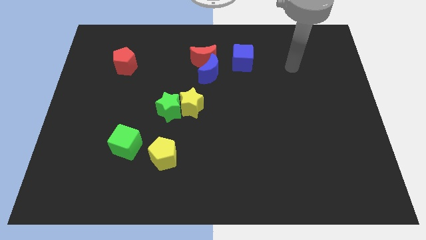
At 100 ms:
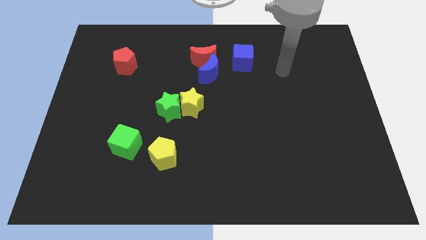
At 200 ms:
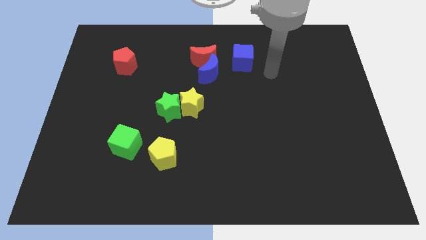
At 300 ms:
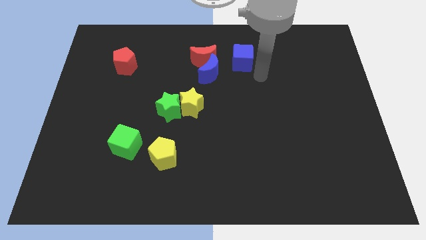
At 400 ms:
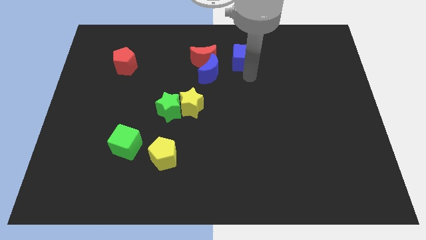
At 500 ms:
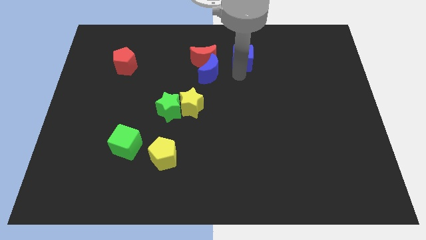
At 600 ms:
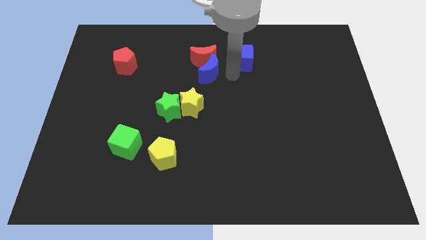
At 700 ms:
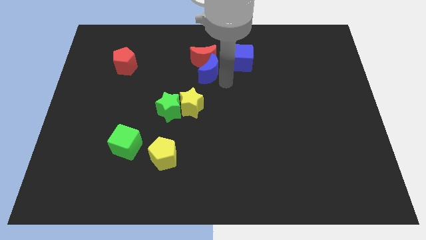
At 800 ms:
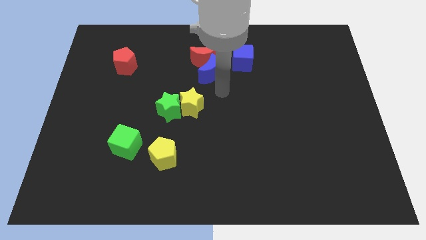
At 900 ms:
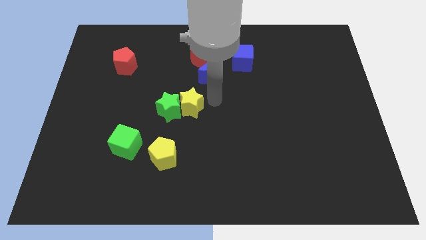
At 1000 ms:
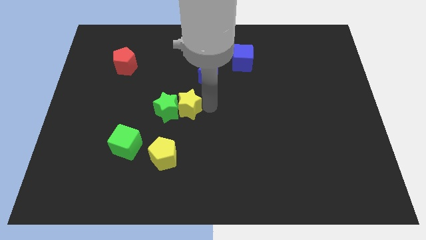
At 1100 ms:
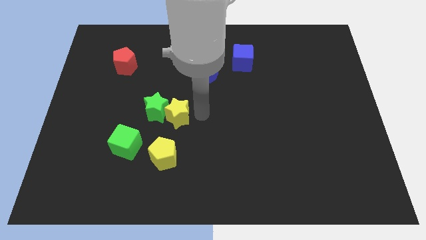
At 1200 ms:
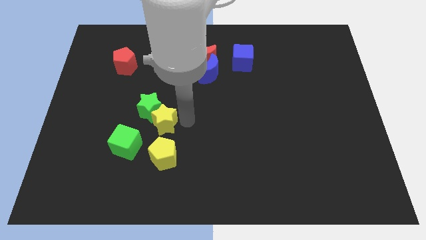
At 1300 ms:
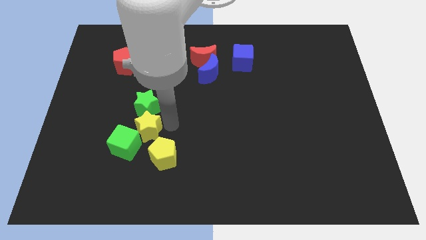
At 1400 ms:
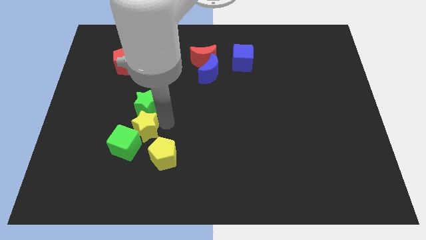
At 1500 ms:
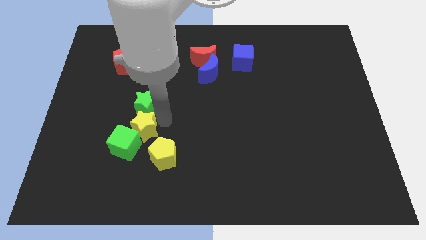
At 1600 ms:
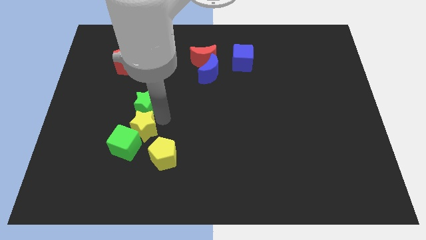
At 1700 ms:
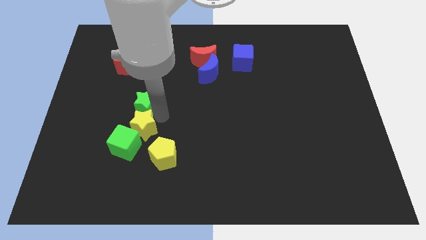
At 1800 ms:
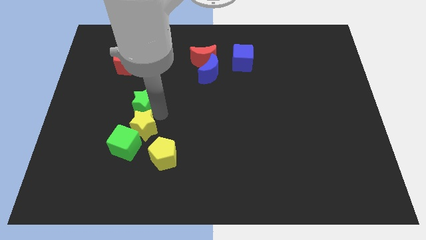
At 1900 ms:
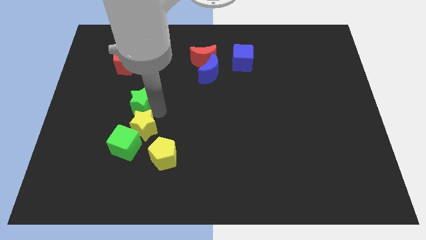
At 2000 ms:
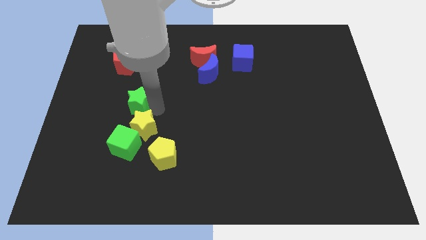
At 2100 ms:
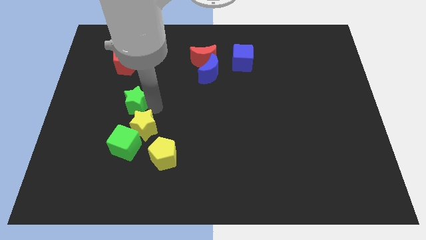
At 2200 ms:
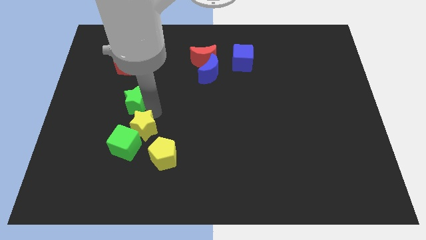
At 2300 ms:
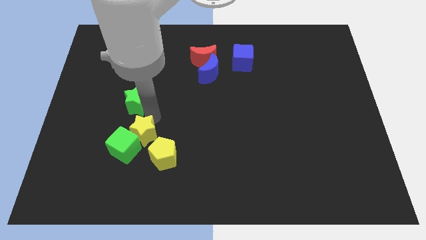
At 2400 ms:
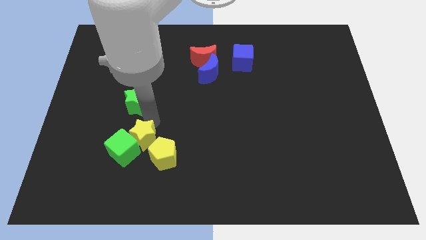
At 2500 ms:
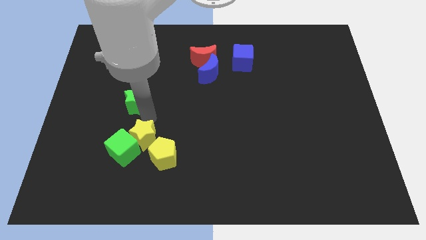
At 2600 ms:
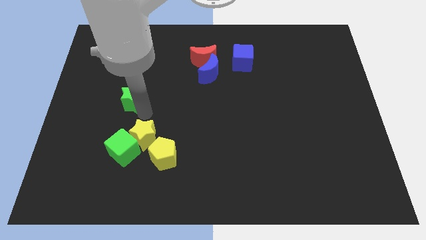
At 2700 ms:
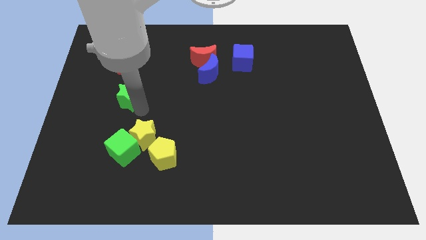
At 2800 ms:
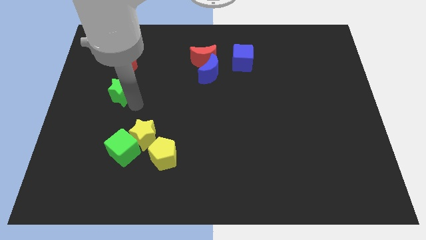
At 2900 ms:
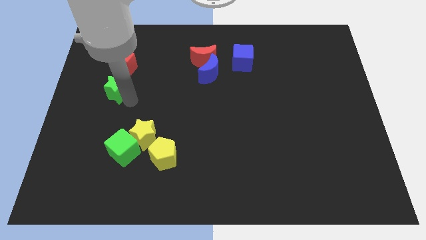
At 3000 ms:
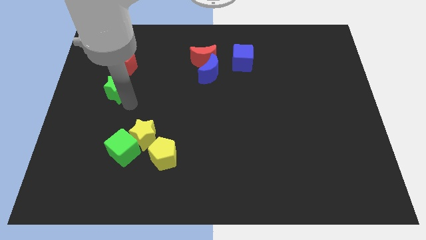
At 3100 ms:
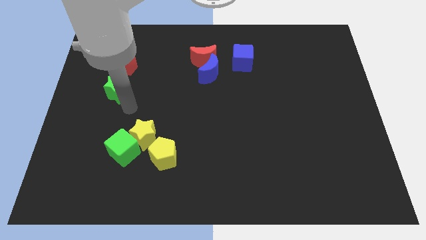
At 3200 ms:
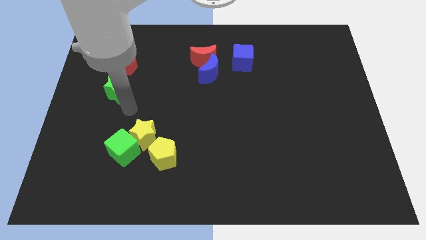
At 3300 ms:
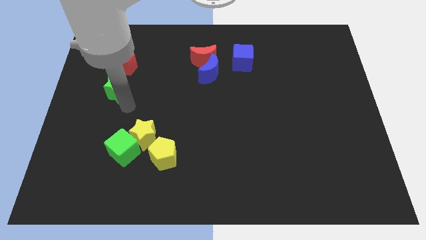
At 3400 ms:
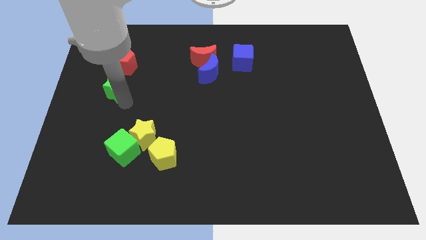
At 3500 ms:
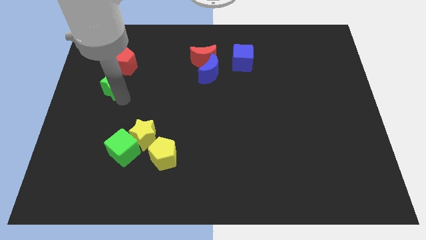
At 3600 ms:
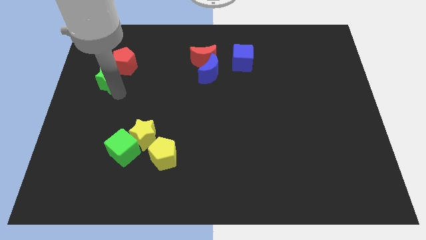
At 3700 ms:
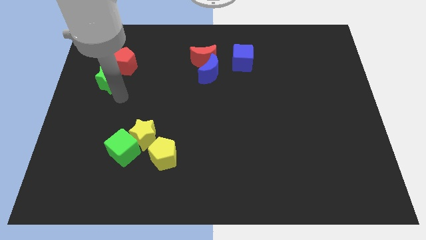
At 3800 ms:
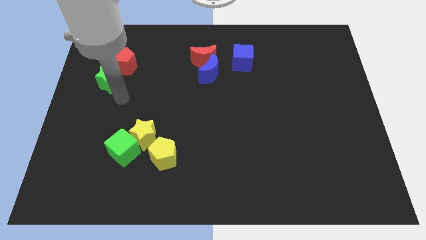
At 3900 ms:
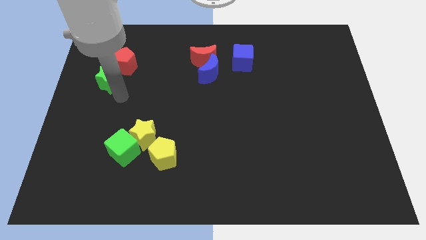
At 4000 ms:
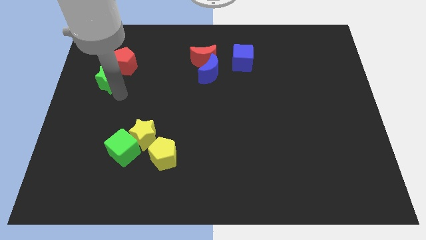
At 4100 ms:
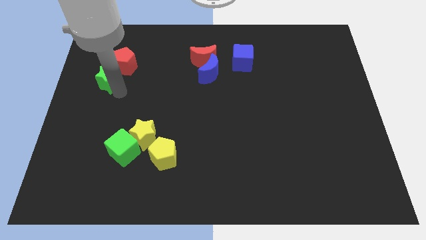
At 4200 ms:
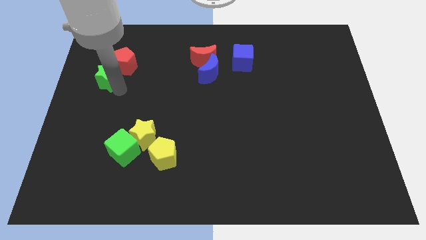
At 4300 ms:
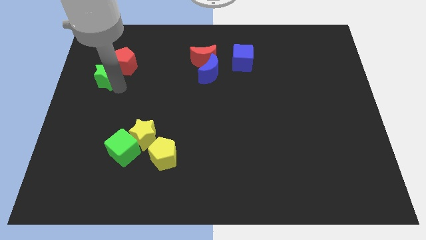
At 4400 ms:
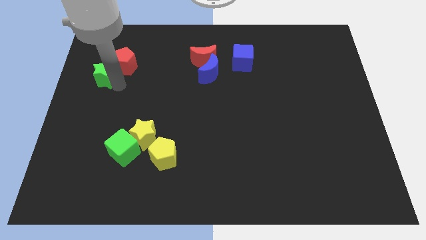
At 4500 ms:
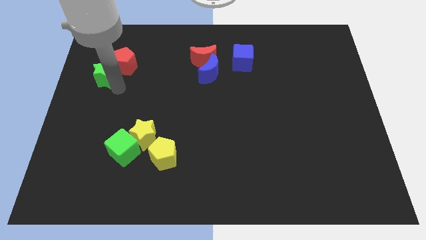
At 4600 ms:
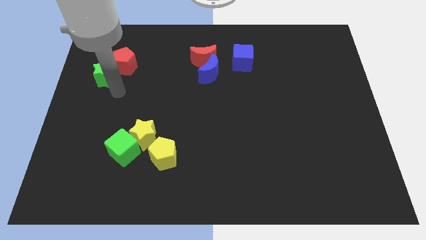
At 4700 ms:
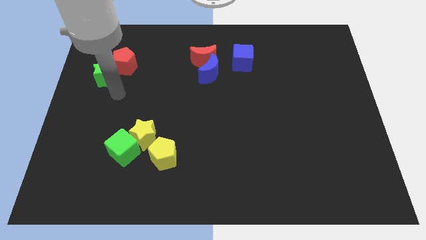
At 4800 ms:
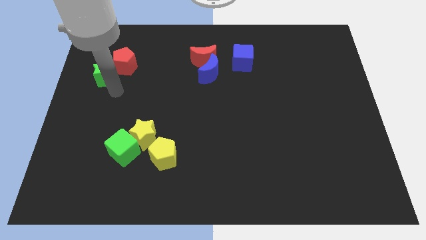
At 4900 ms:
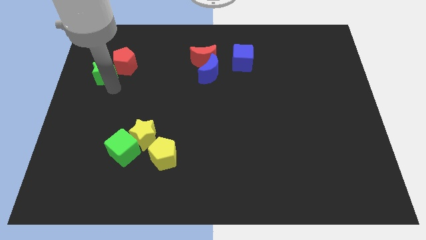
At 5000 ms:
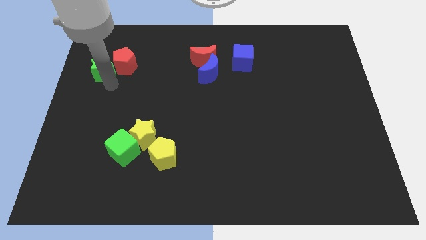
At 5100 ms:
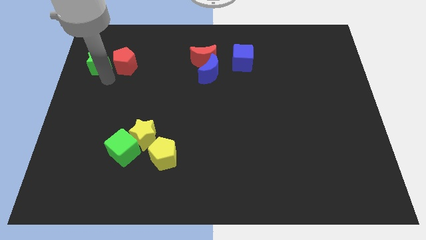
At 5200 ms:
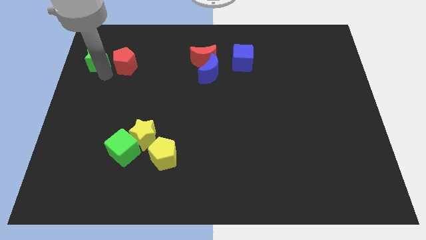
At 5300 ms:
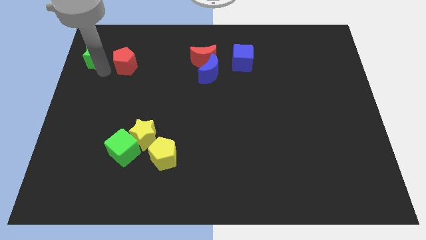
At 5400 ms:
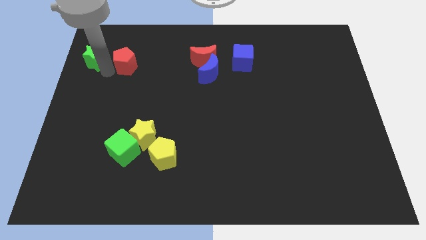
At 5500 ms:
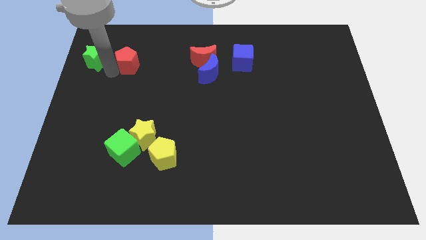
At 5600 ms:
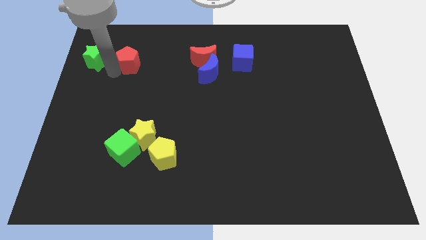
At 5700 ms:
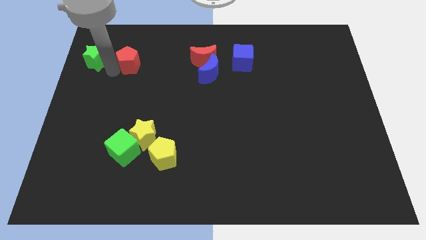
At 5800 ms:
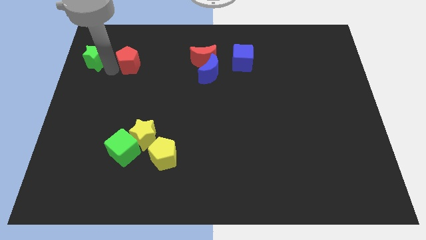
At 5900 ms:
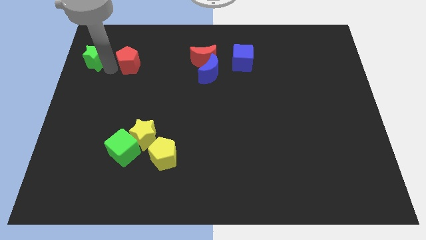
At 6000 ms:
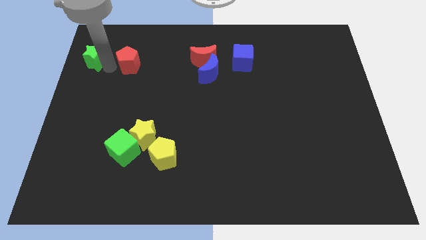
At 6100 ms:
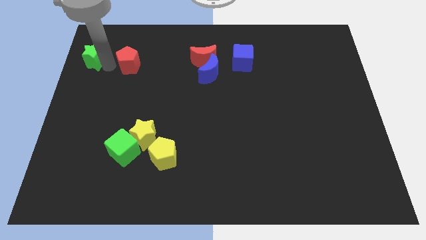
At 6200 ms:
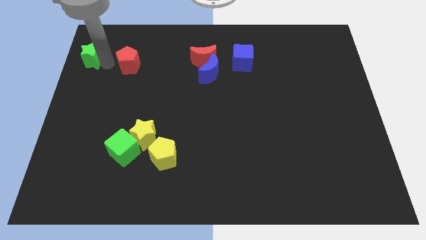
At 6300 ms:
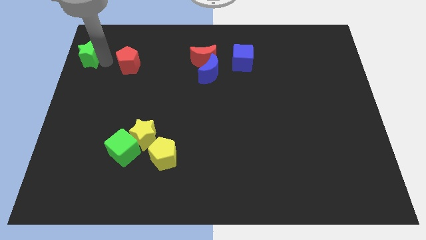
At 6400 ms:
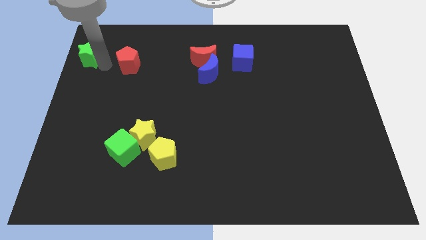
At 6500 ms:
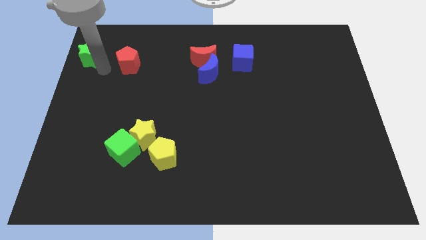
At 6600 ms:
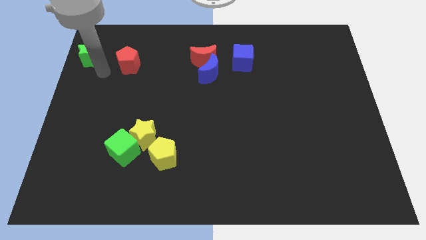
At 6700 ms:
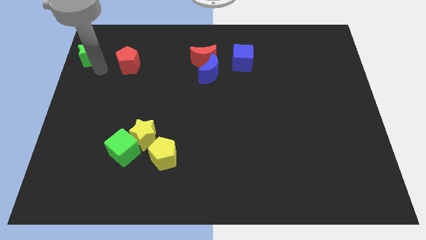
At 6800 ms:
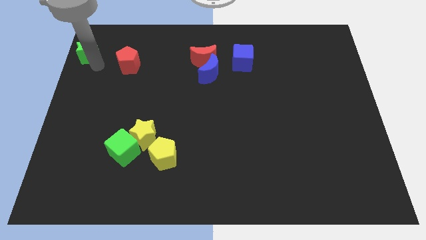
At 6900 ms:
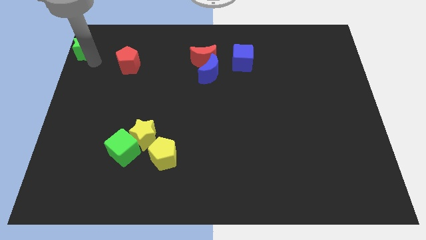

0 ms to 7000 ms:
move the green star to the upper left corner

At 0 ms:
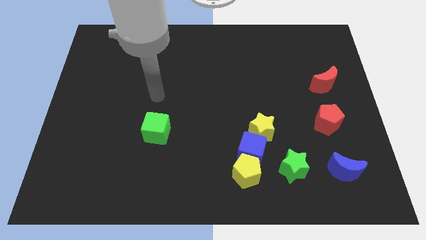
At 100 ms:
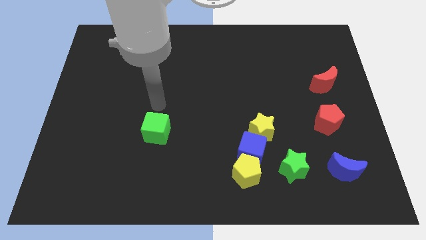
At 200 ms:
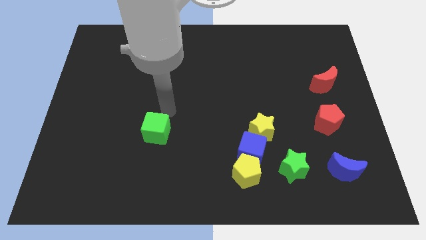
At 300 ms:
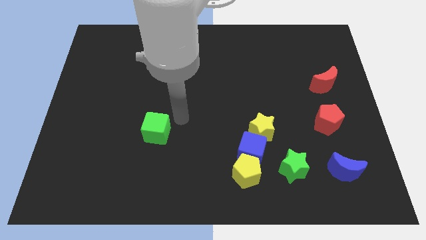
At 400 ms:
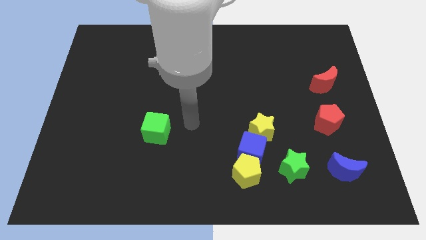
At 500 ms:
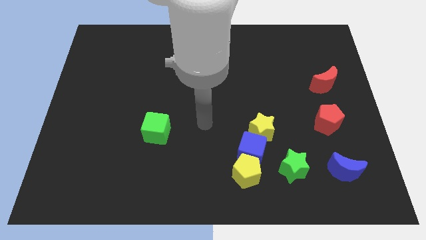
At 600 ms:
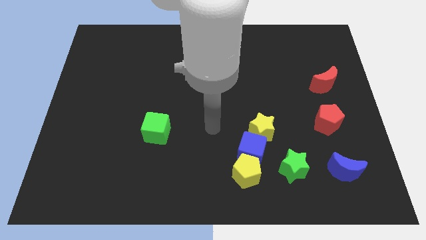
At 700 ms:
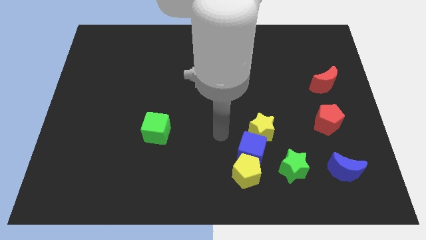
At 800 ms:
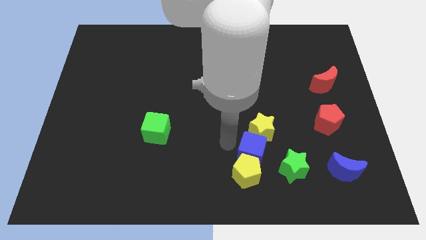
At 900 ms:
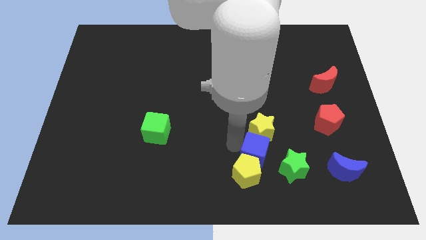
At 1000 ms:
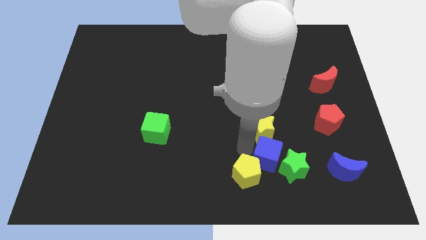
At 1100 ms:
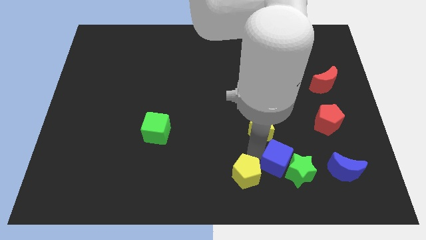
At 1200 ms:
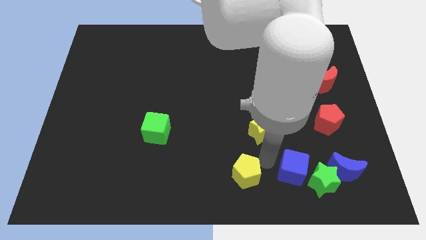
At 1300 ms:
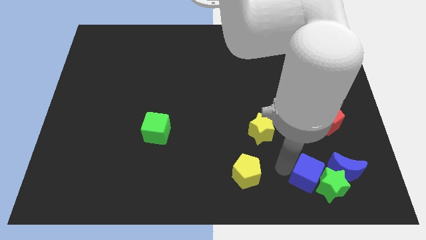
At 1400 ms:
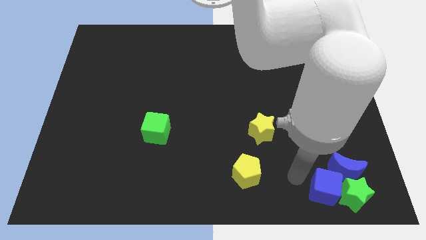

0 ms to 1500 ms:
move the green star to the bottom right corner
